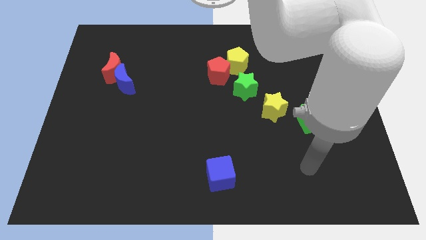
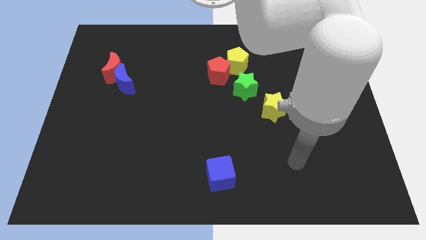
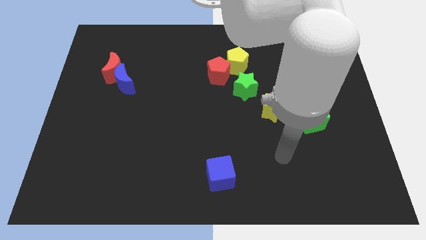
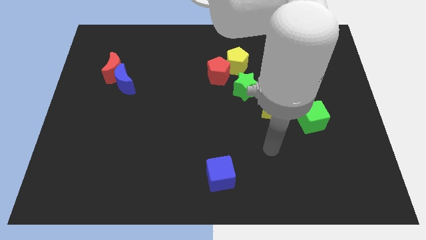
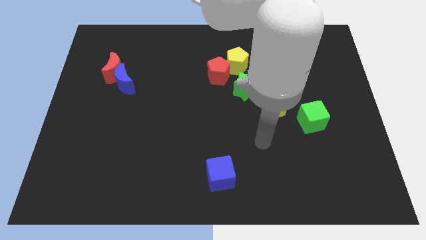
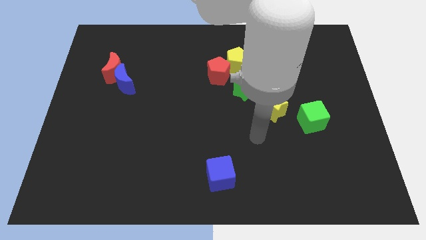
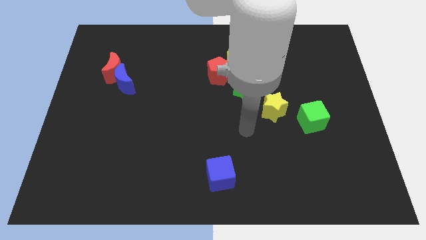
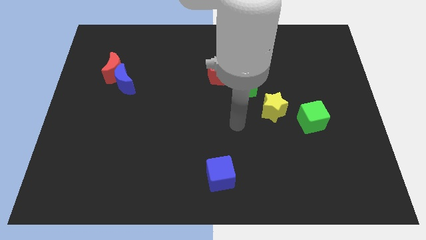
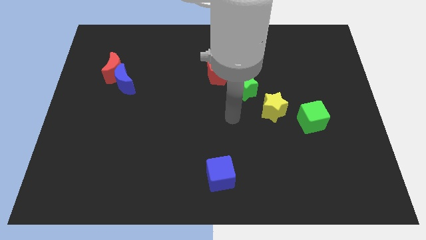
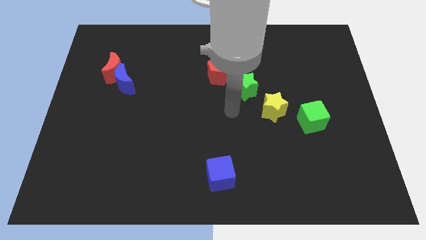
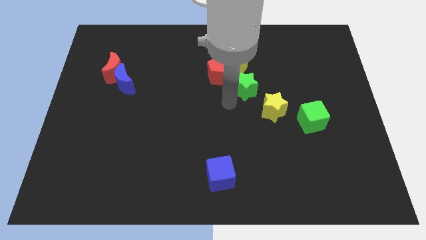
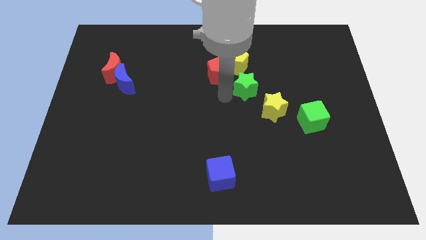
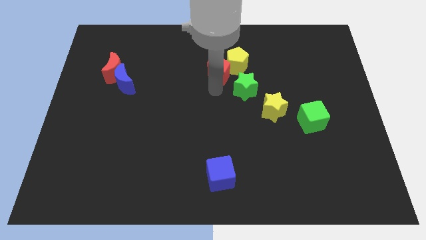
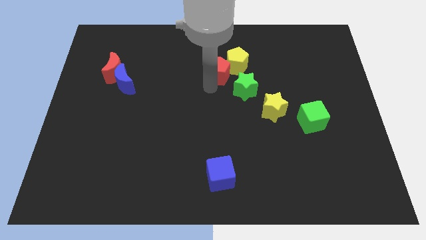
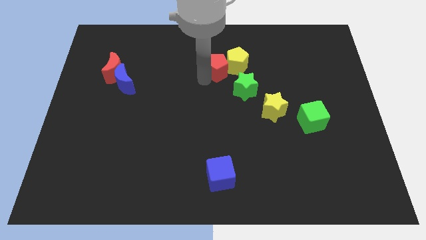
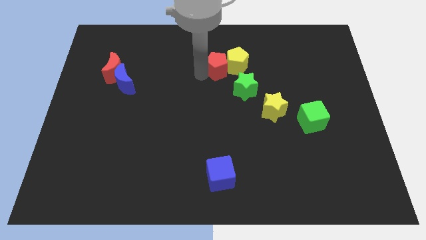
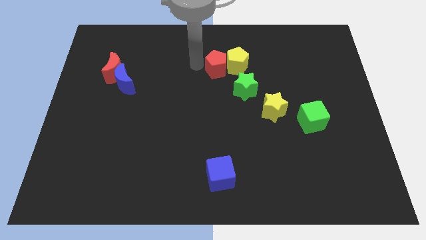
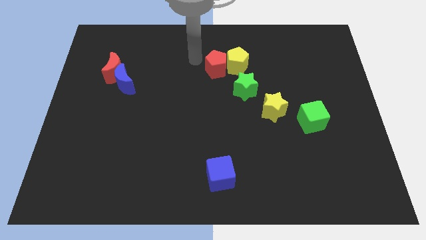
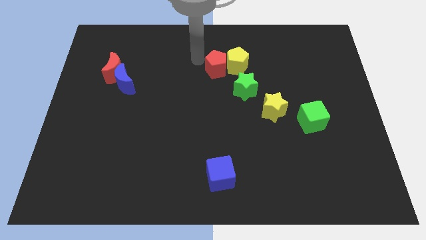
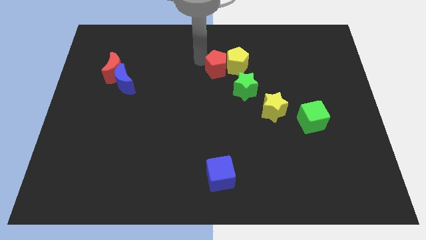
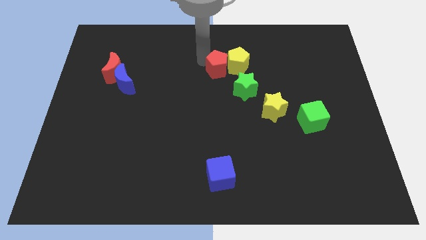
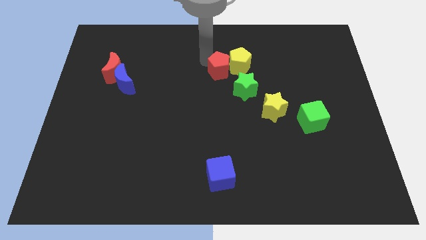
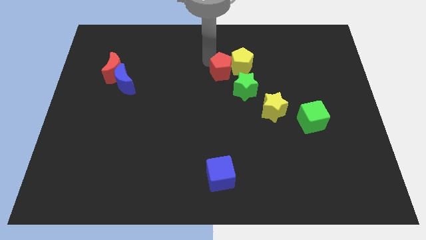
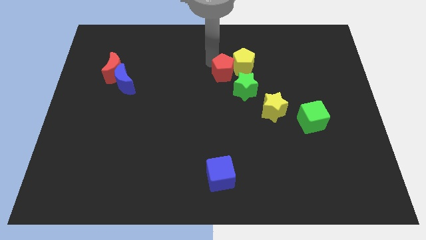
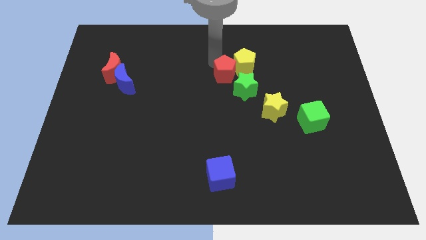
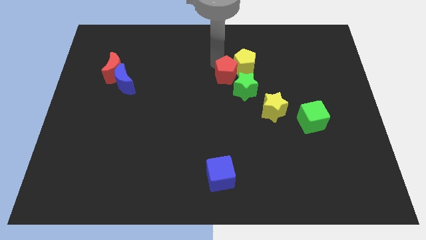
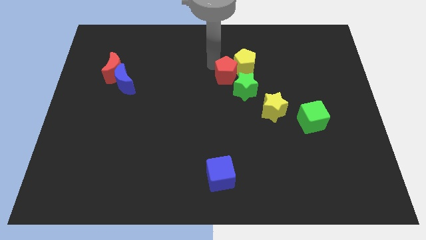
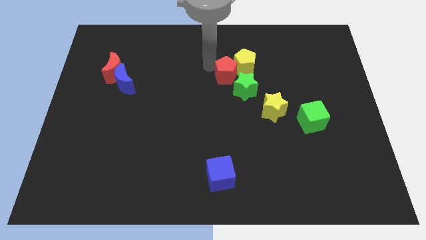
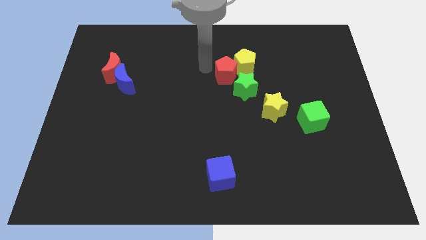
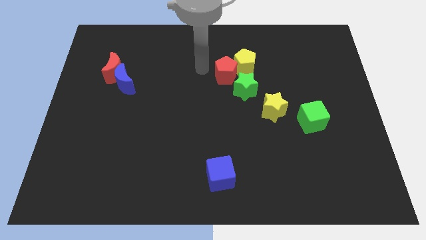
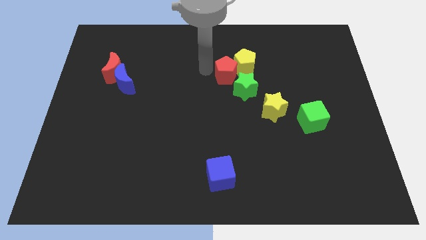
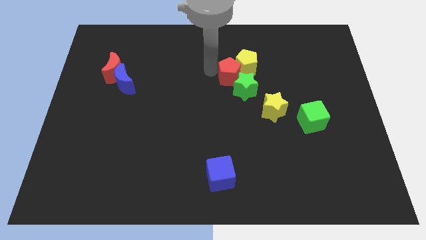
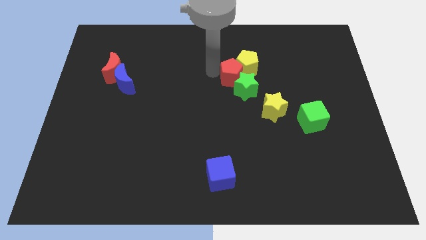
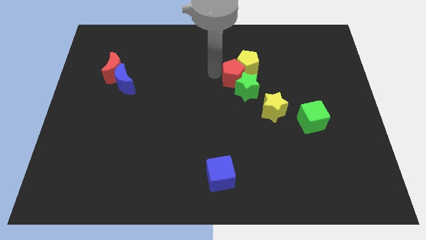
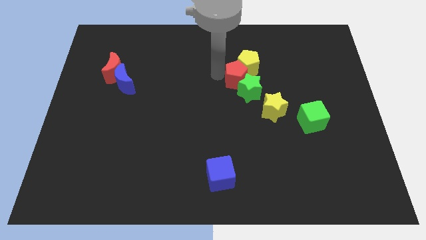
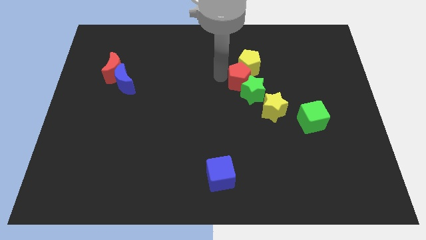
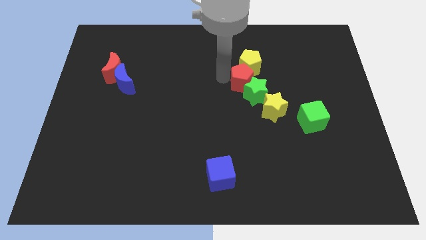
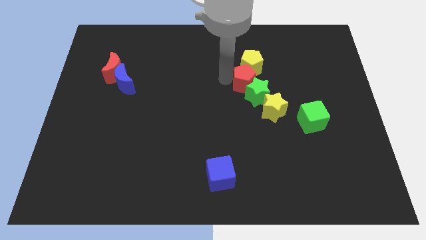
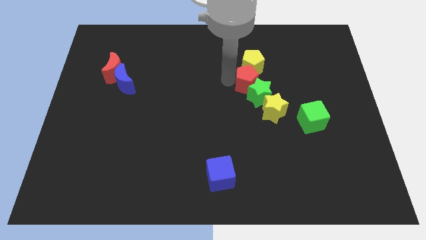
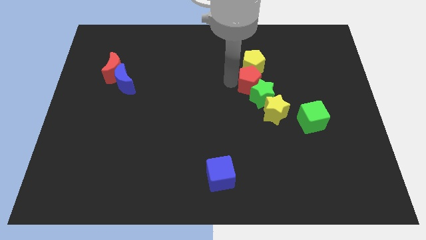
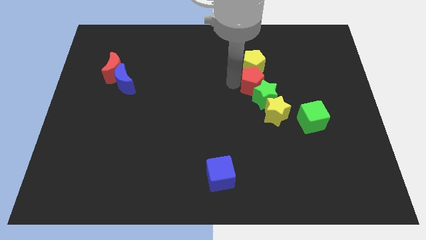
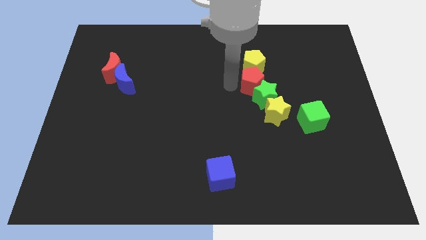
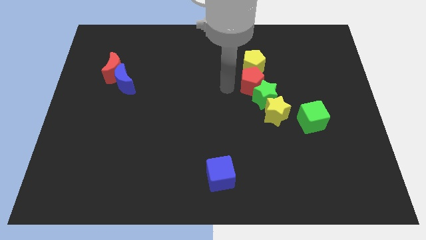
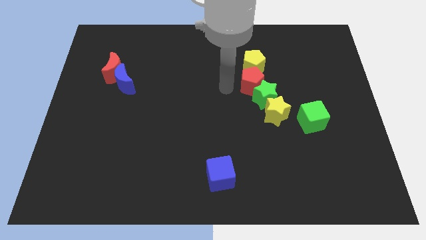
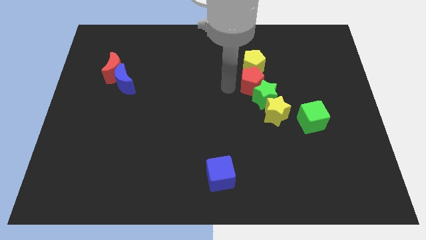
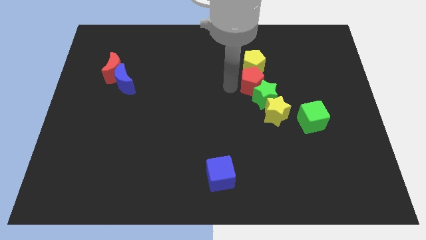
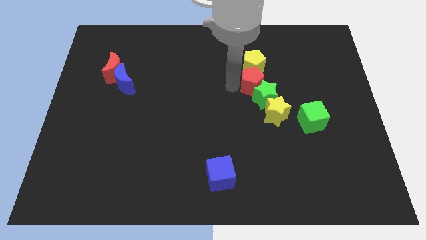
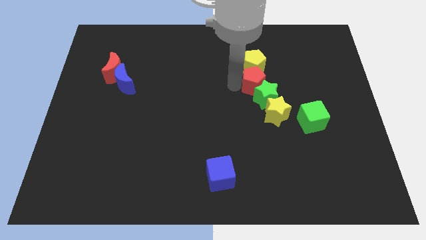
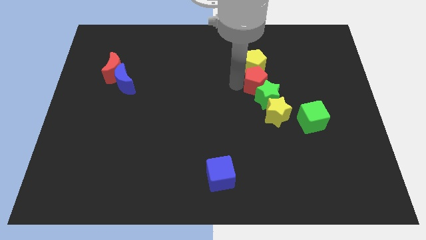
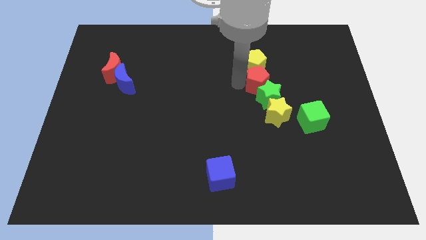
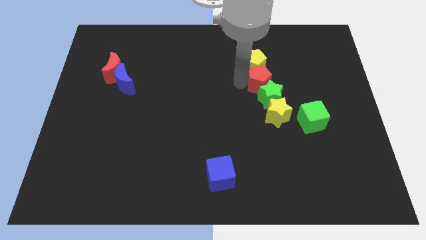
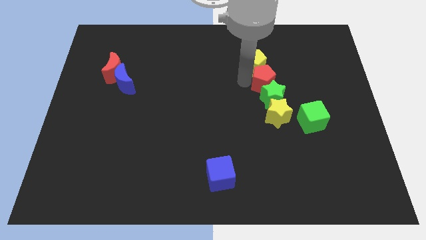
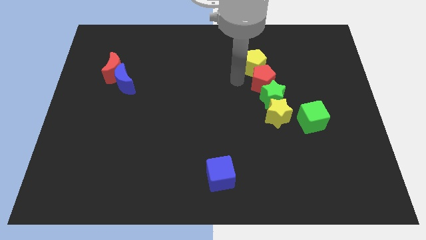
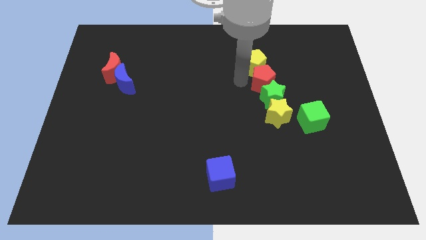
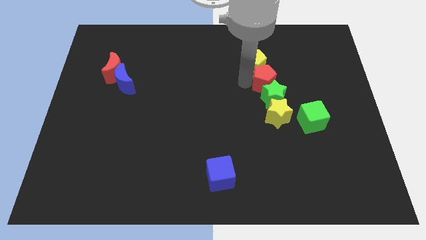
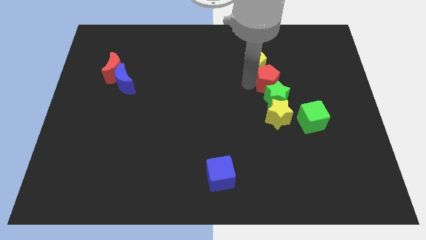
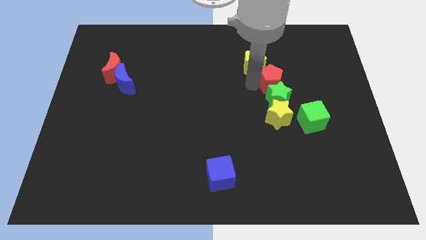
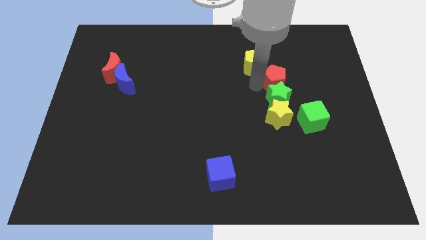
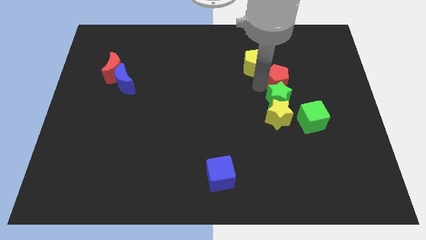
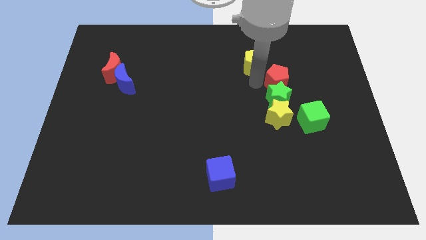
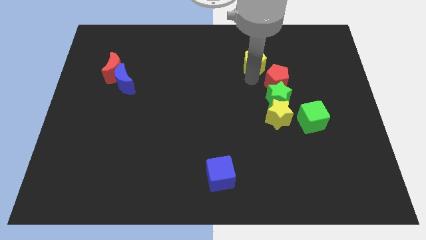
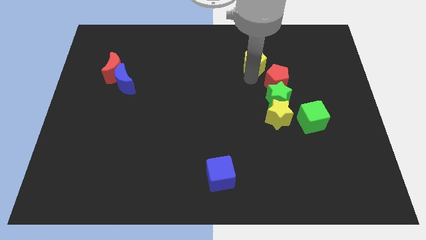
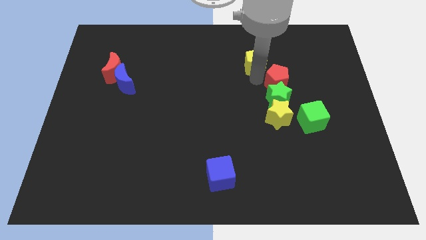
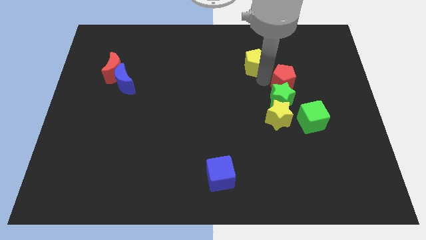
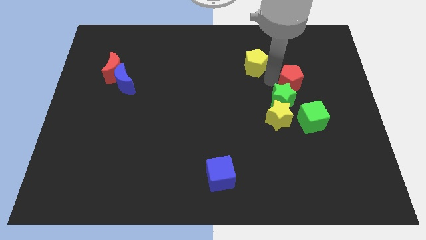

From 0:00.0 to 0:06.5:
move the red pentagon to the top of the green cube
